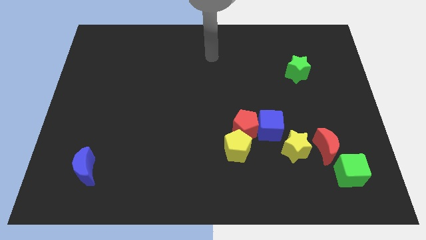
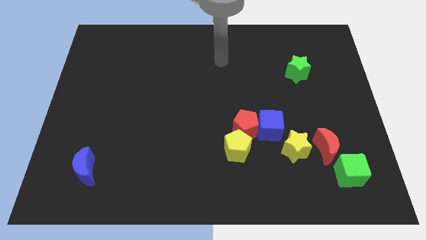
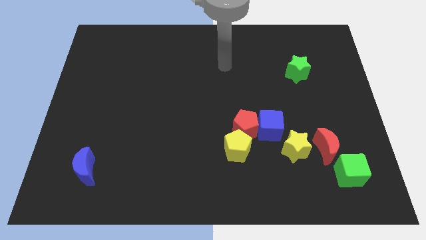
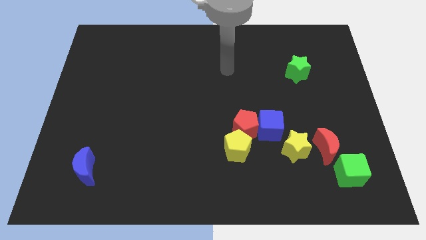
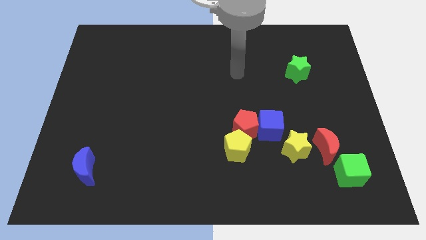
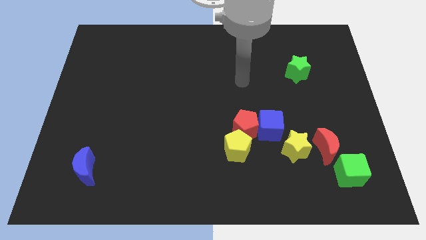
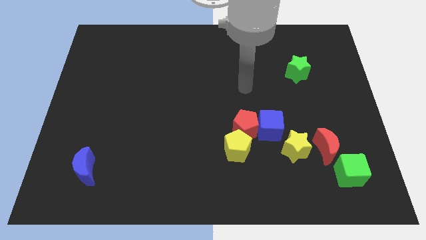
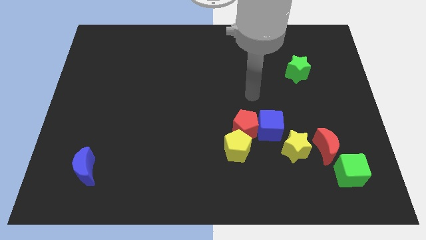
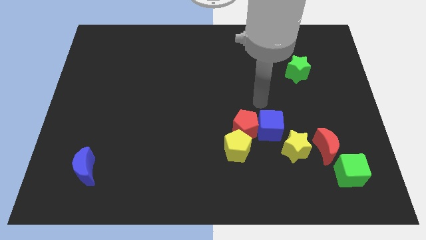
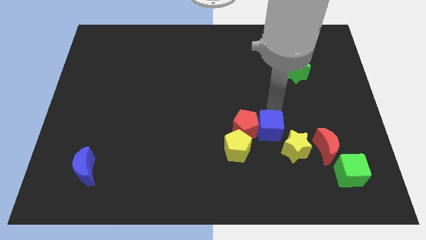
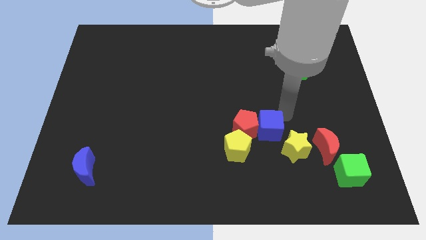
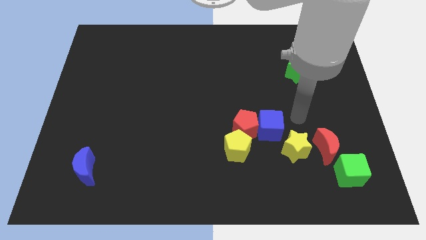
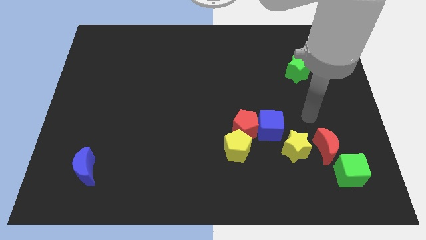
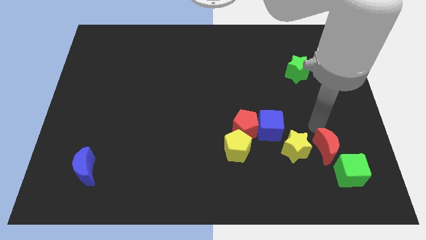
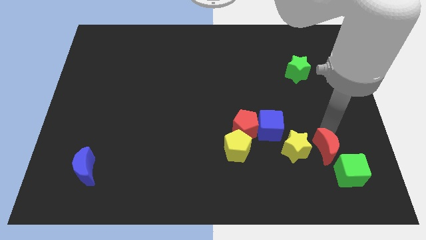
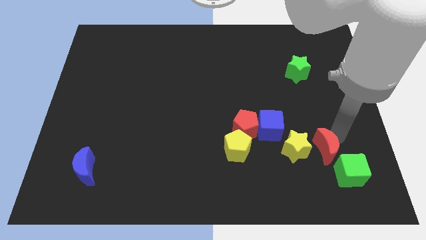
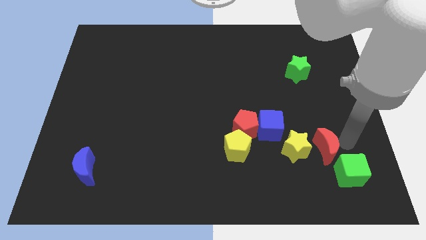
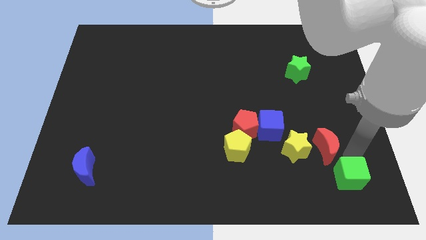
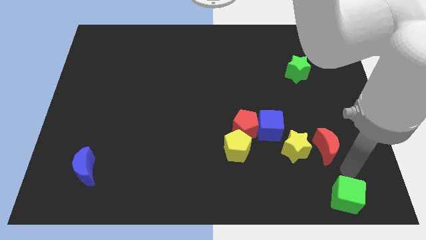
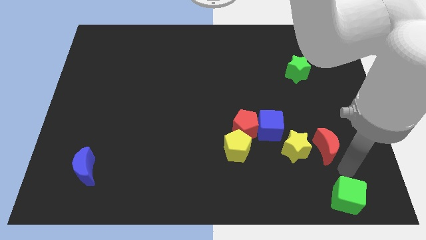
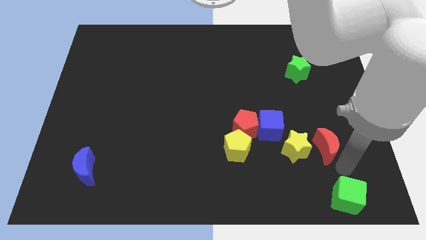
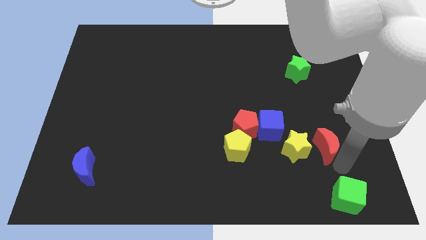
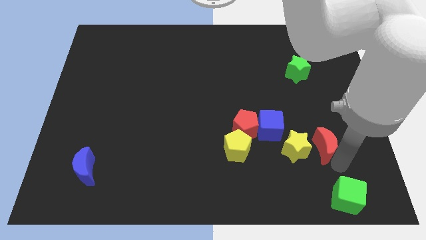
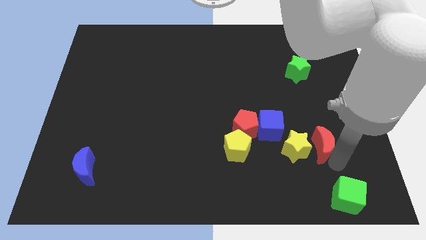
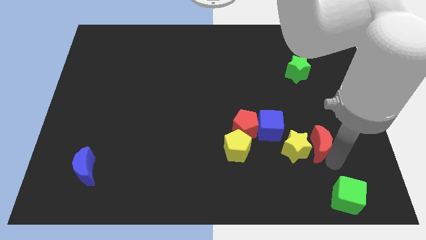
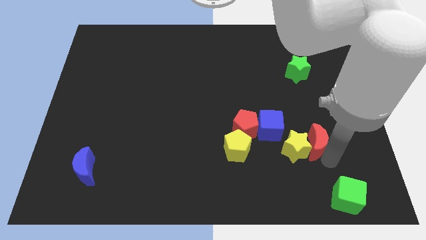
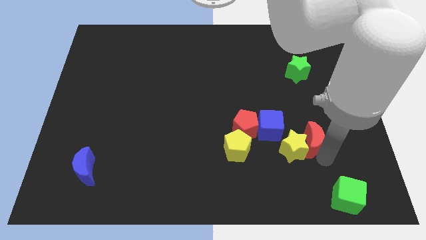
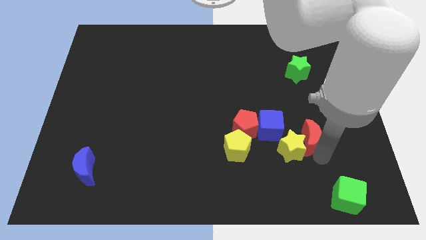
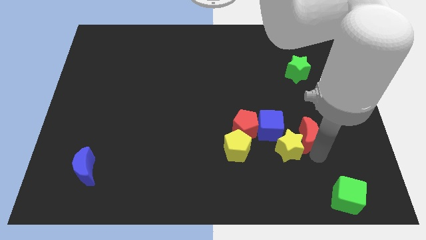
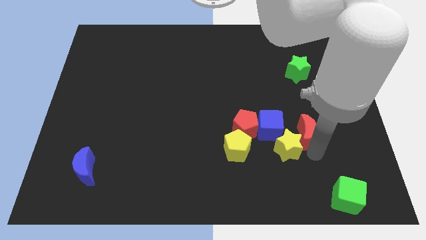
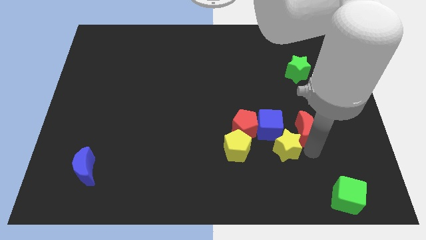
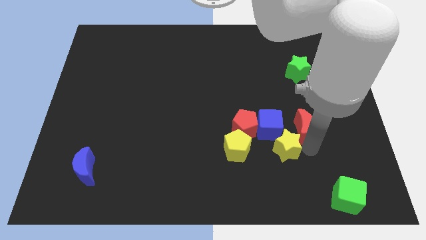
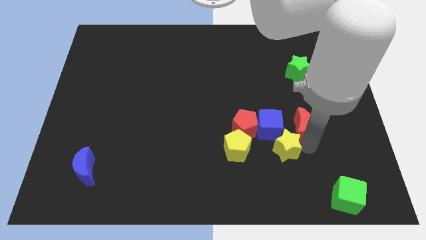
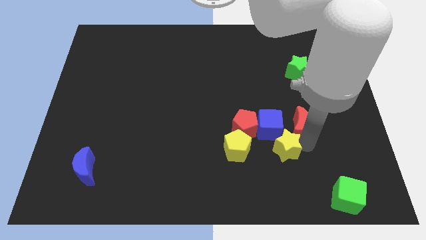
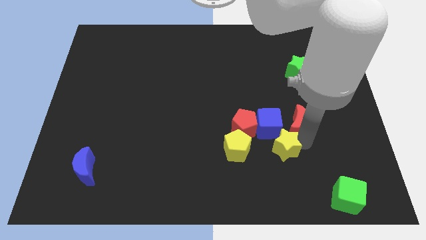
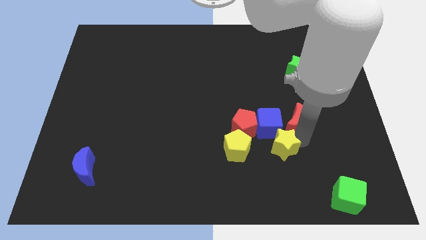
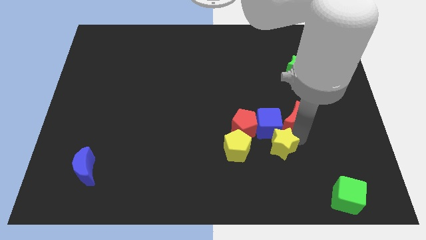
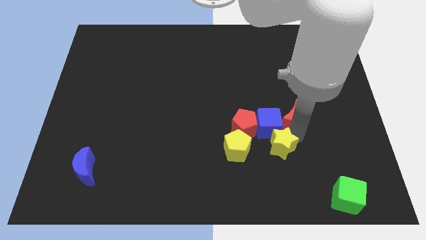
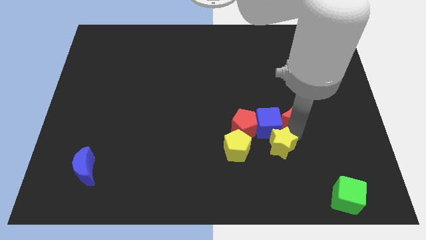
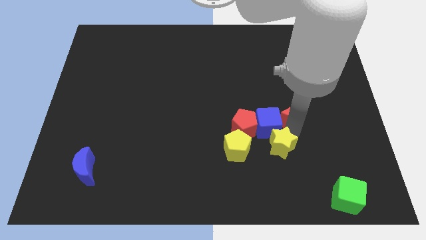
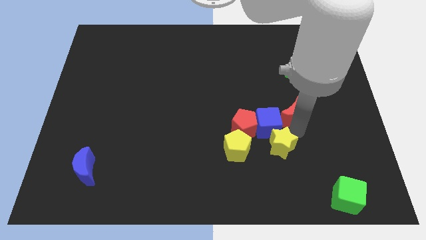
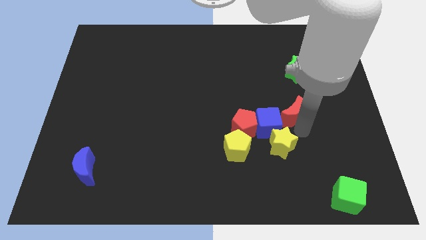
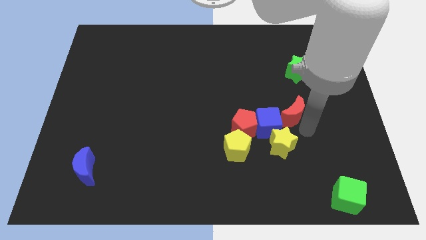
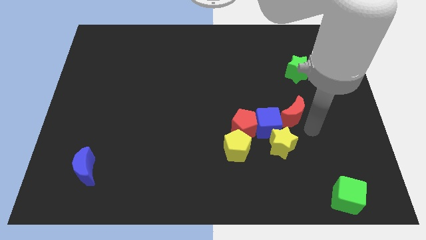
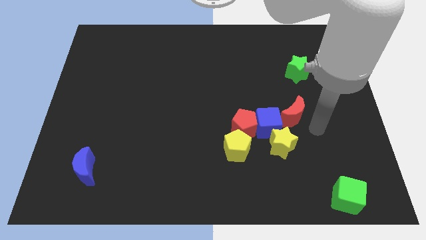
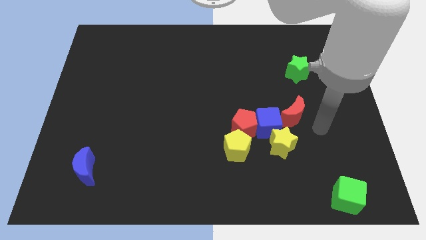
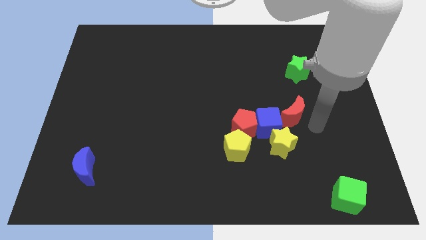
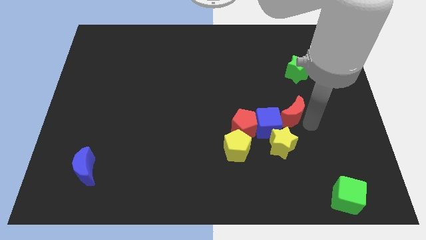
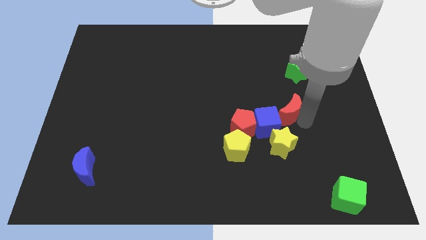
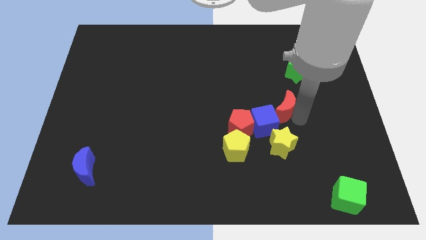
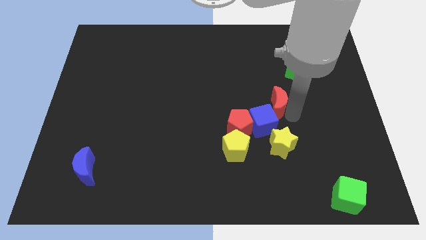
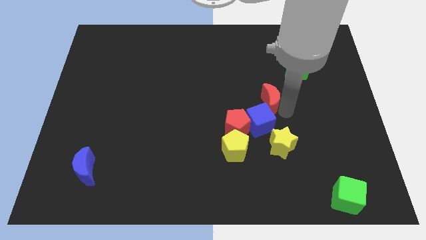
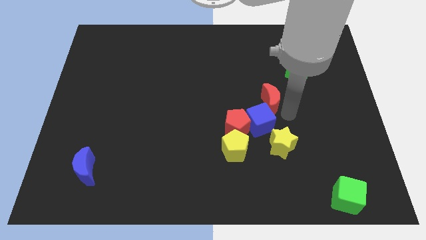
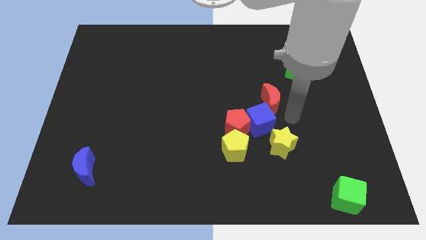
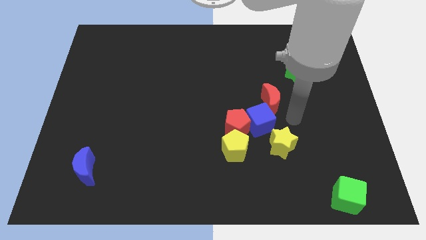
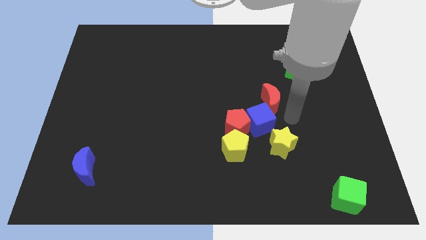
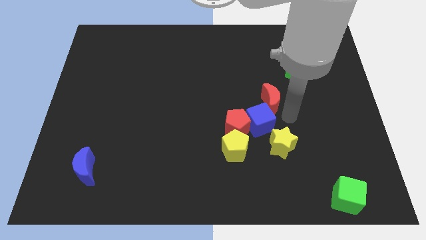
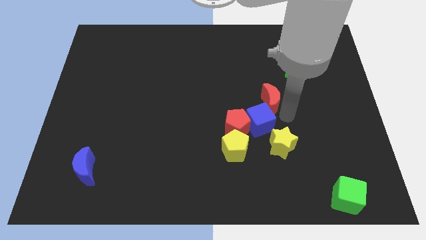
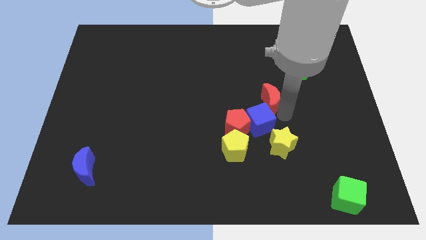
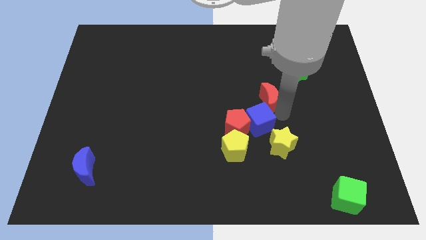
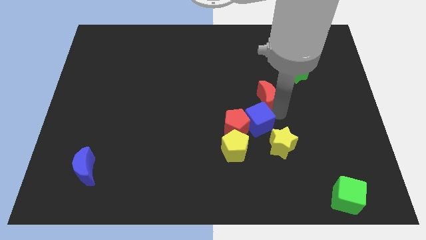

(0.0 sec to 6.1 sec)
slide the red moon to the middle of the board

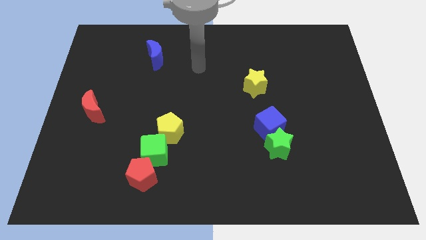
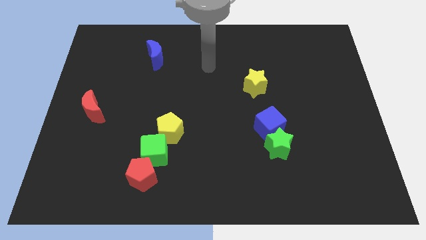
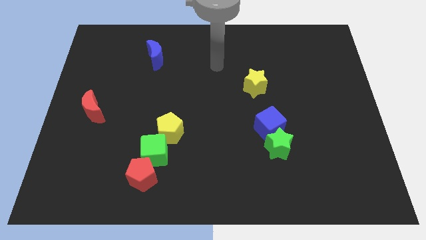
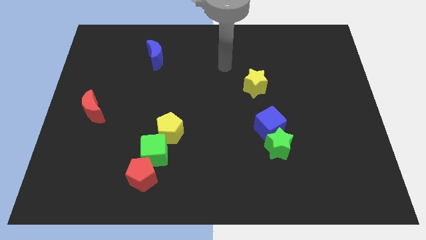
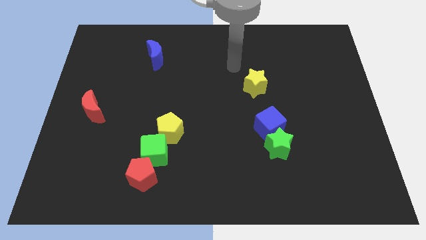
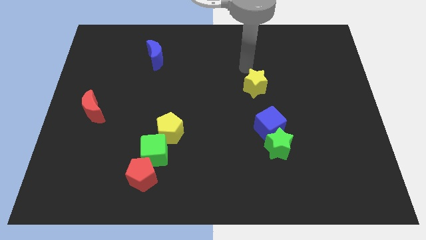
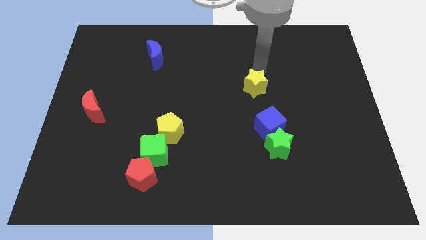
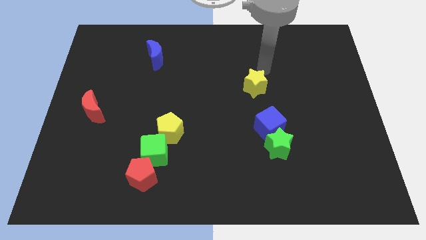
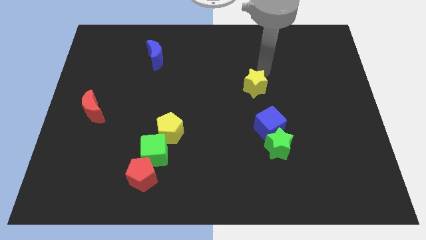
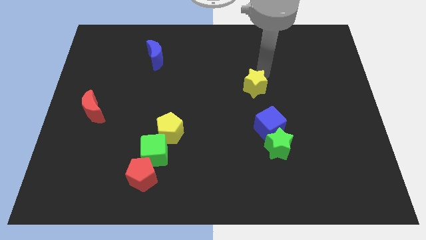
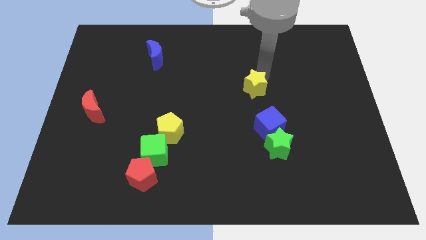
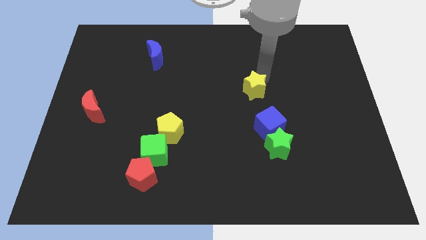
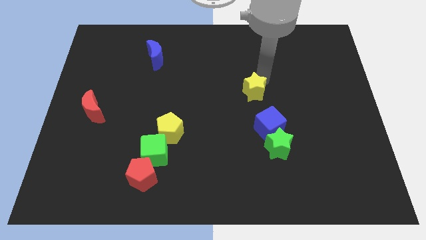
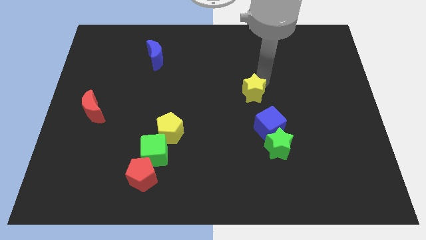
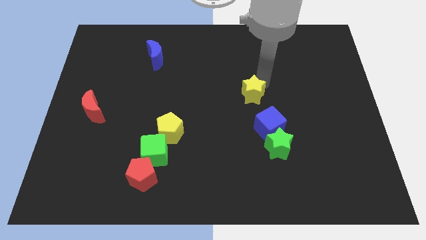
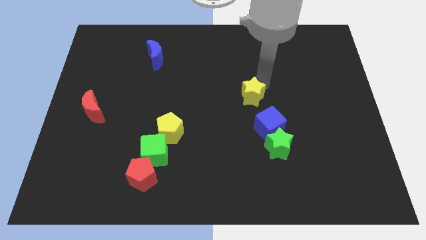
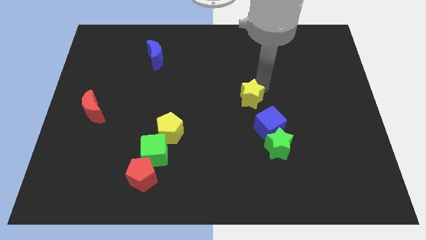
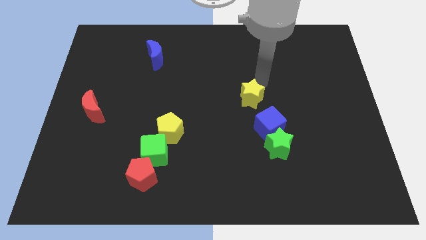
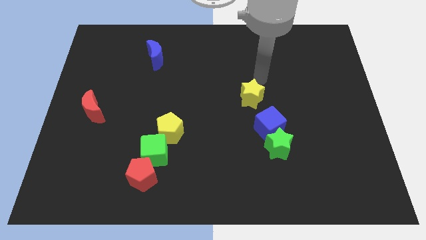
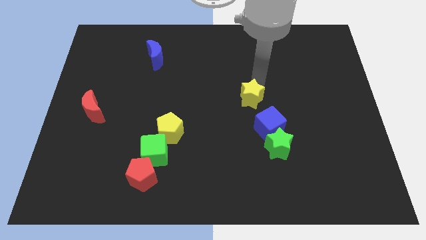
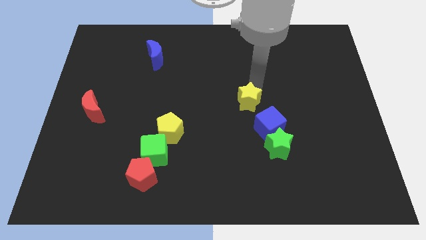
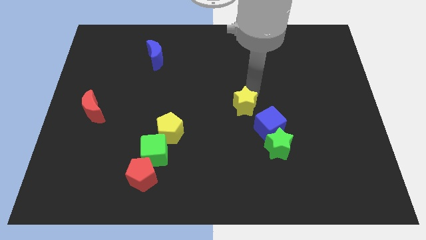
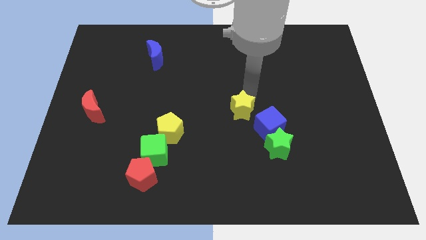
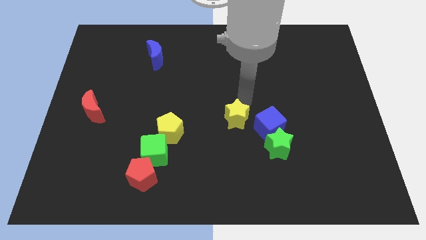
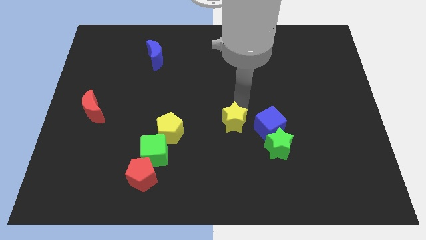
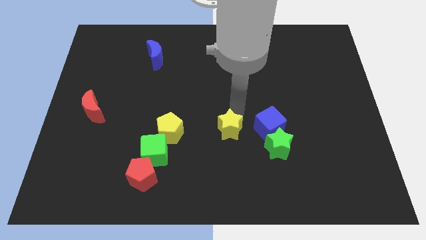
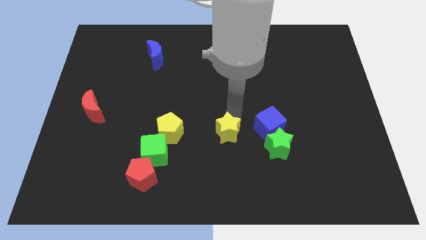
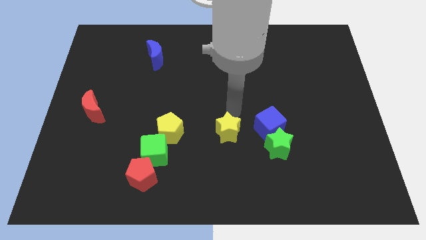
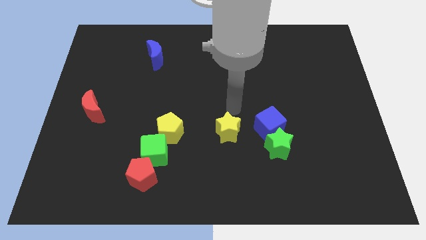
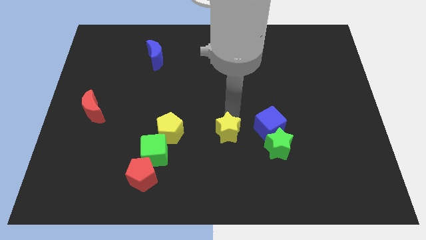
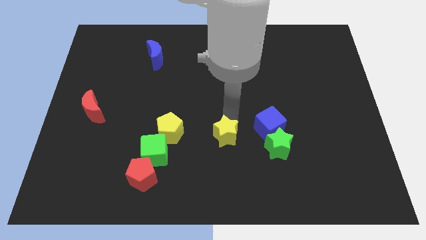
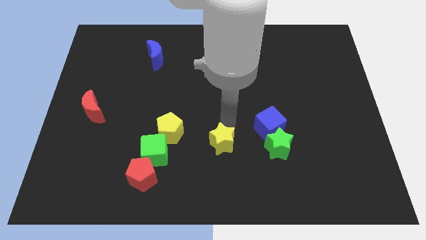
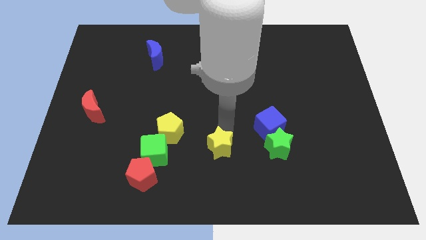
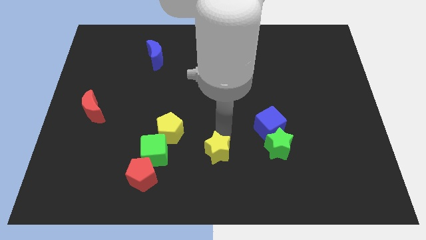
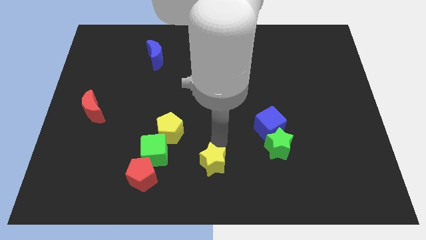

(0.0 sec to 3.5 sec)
slide the yellow star to the bottom
